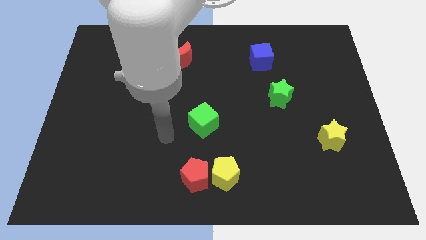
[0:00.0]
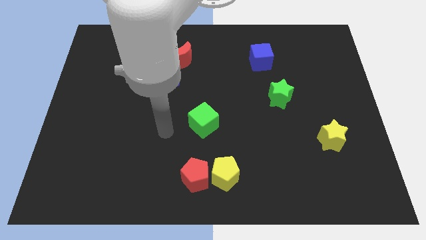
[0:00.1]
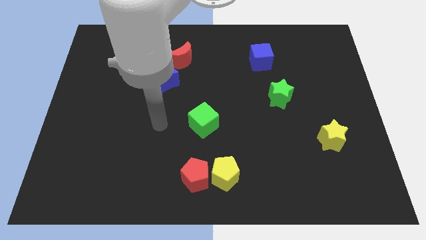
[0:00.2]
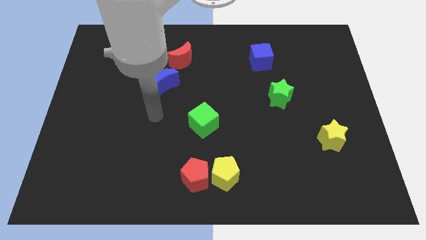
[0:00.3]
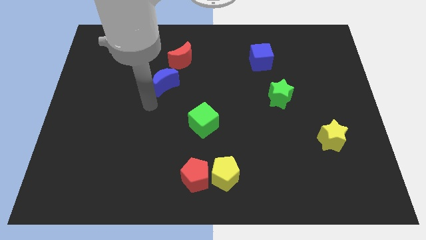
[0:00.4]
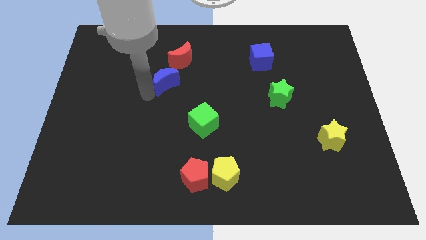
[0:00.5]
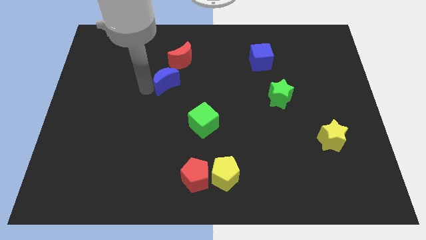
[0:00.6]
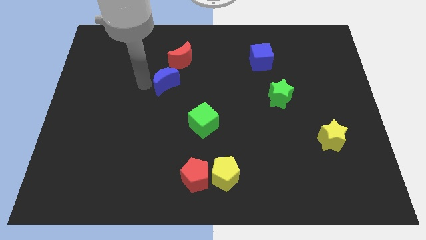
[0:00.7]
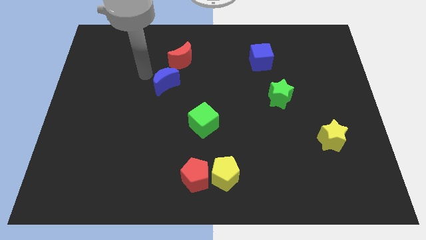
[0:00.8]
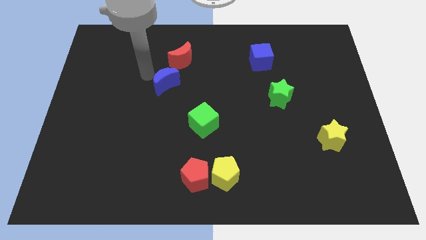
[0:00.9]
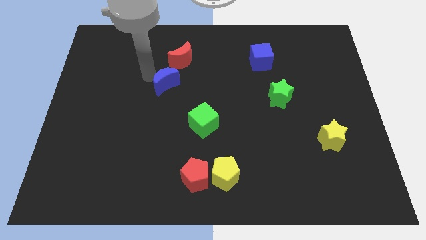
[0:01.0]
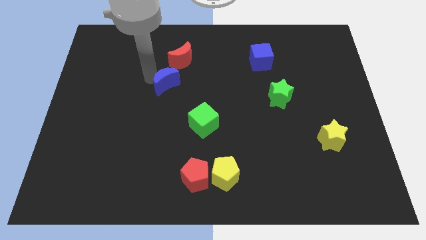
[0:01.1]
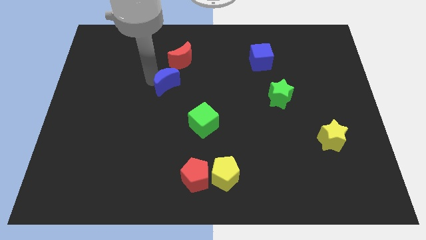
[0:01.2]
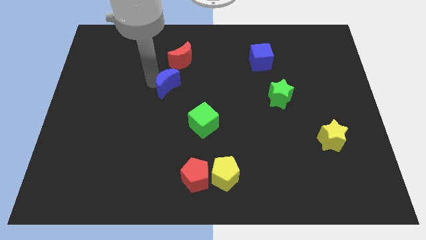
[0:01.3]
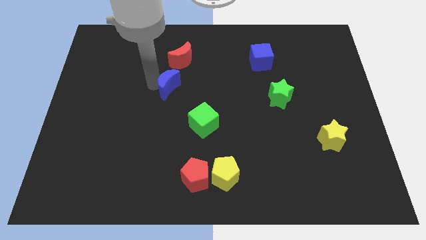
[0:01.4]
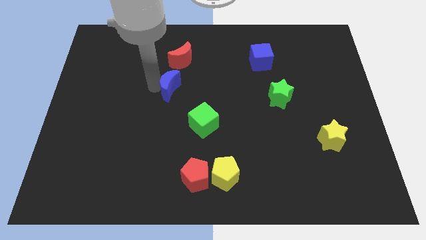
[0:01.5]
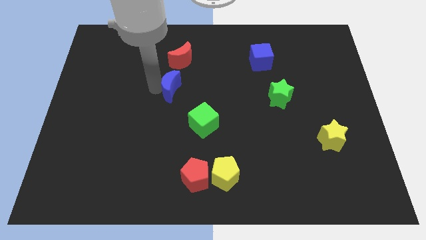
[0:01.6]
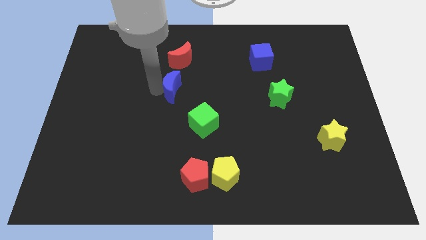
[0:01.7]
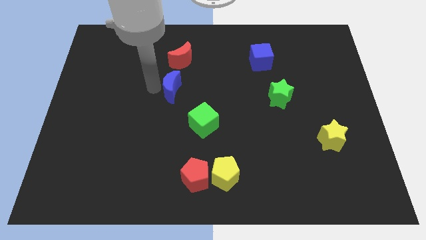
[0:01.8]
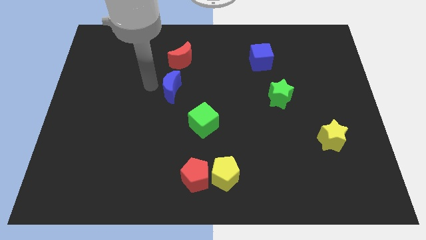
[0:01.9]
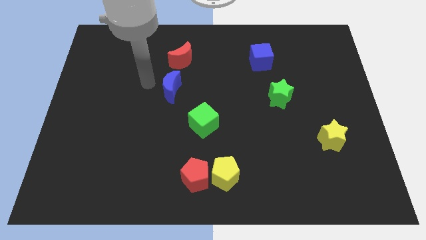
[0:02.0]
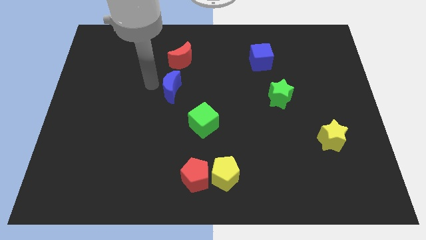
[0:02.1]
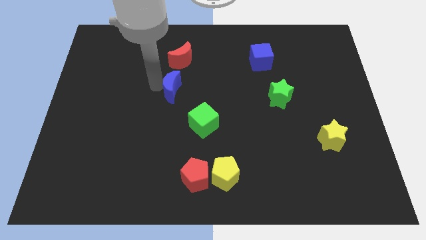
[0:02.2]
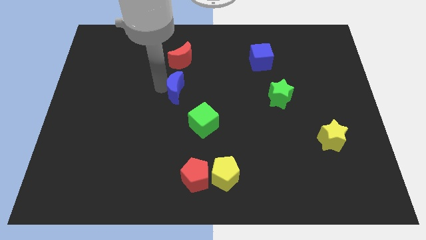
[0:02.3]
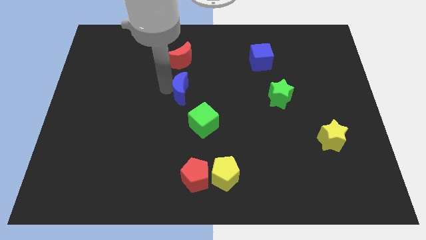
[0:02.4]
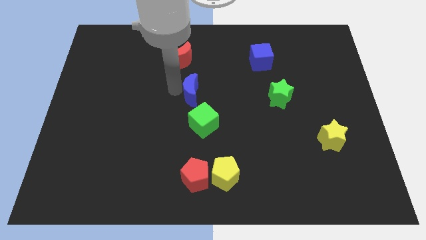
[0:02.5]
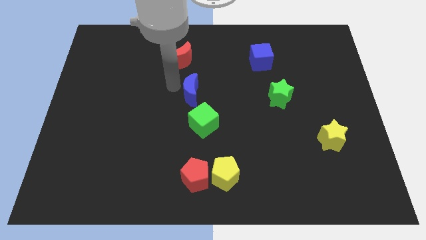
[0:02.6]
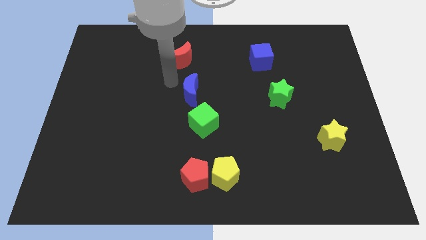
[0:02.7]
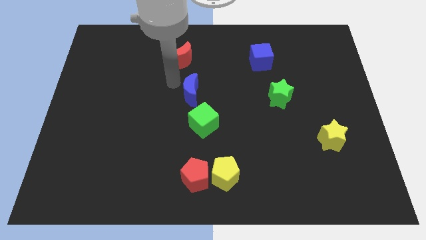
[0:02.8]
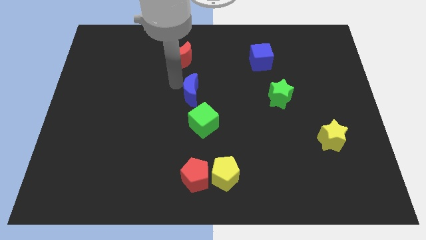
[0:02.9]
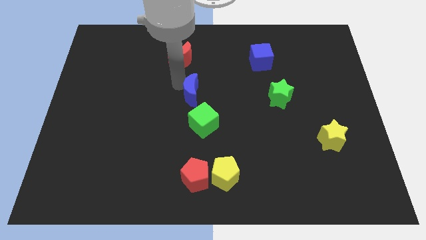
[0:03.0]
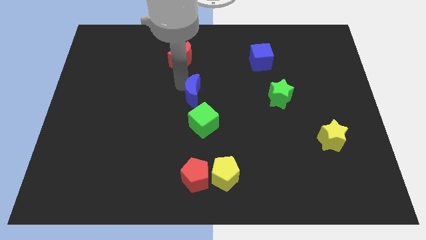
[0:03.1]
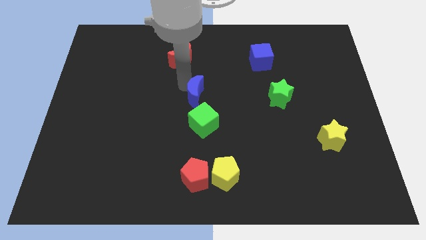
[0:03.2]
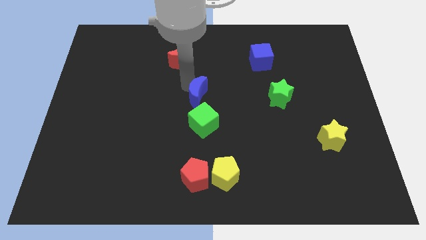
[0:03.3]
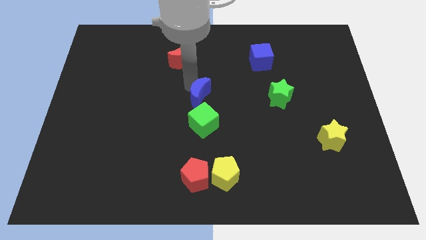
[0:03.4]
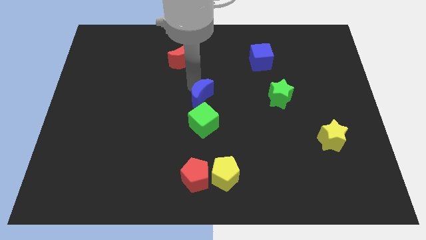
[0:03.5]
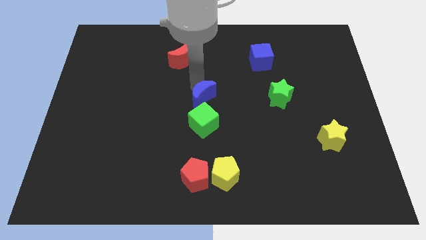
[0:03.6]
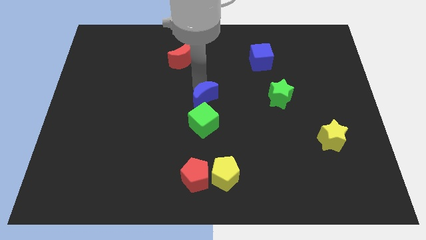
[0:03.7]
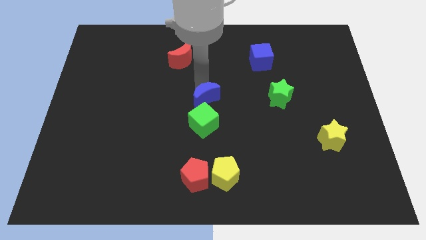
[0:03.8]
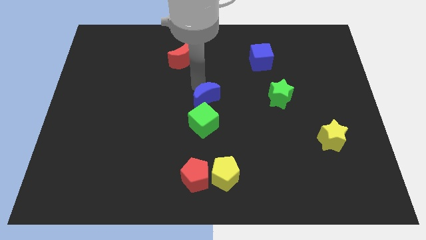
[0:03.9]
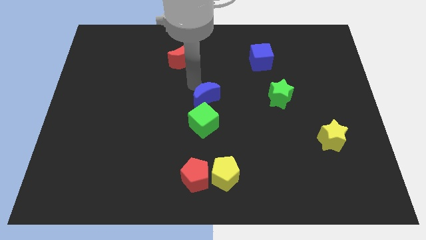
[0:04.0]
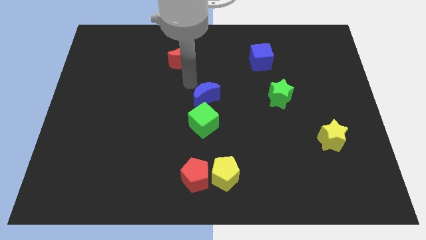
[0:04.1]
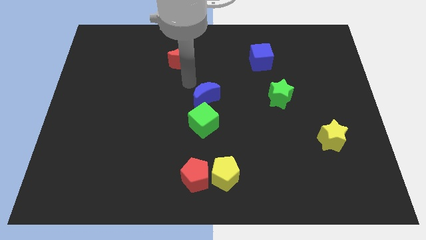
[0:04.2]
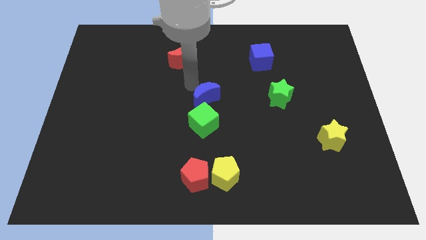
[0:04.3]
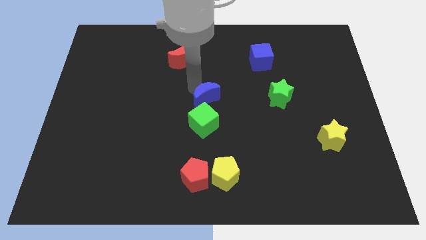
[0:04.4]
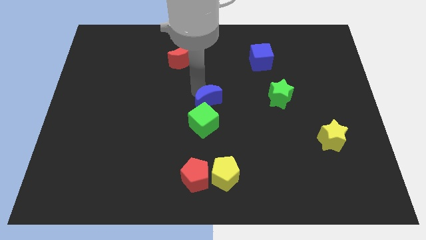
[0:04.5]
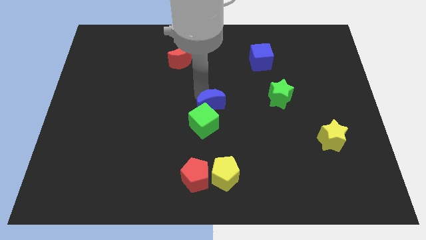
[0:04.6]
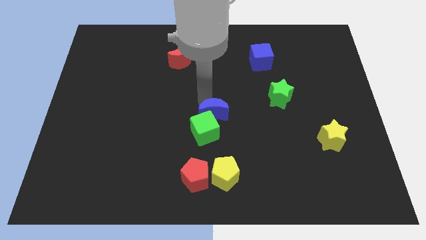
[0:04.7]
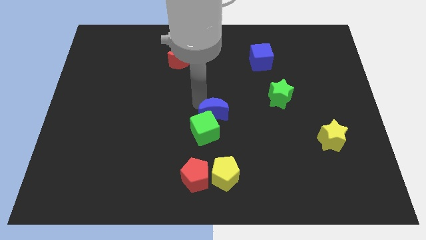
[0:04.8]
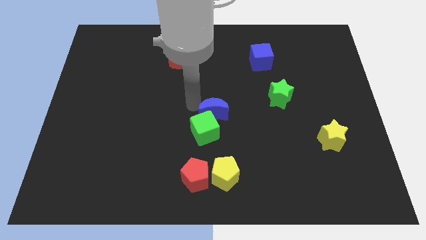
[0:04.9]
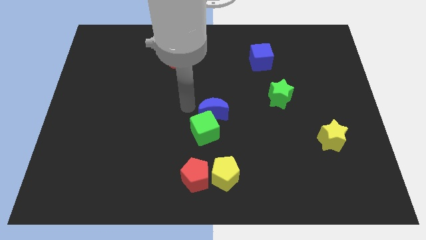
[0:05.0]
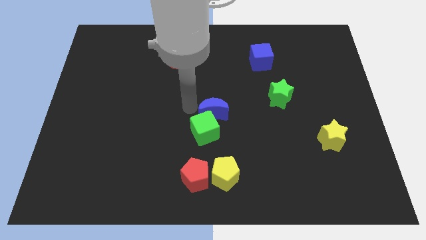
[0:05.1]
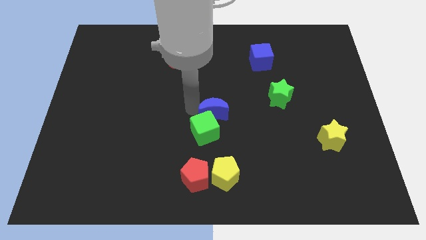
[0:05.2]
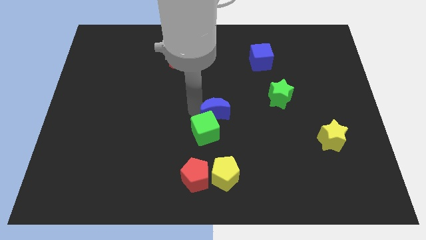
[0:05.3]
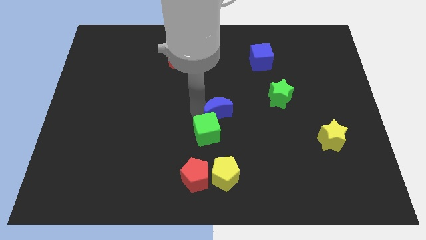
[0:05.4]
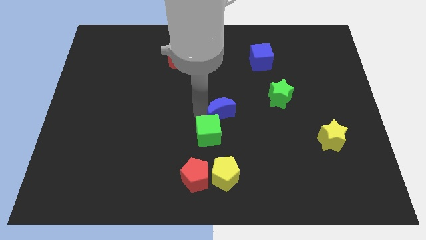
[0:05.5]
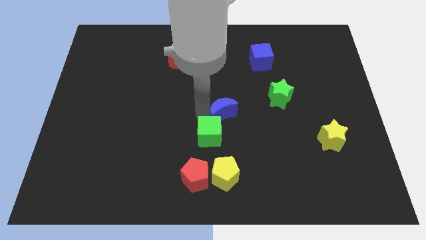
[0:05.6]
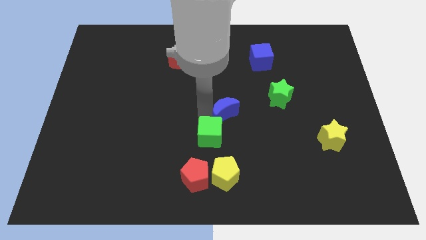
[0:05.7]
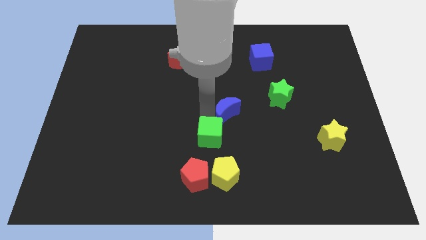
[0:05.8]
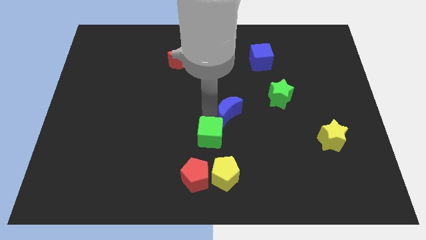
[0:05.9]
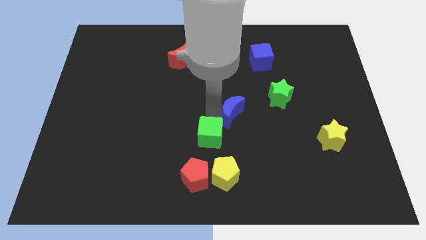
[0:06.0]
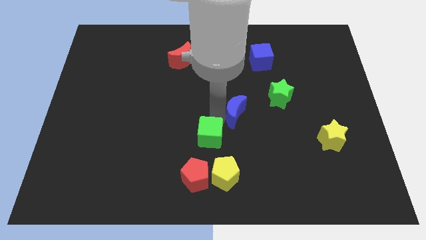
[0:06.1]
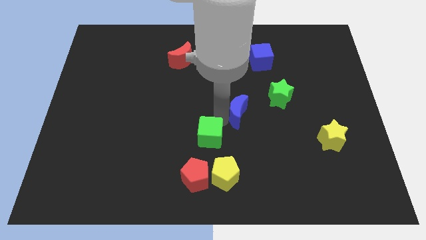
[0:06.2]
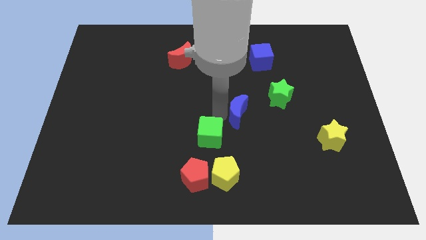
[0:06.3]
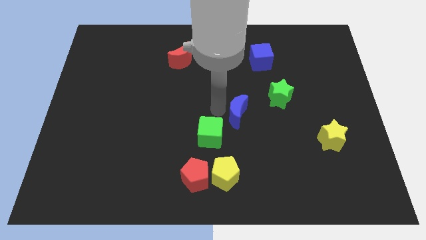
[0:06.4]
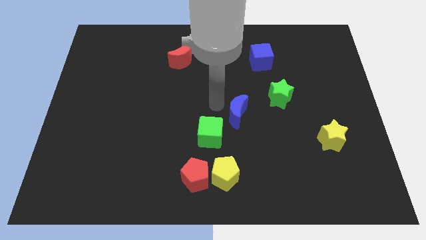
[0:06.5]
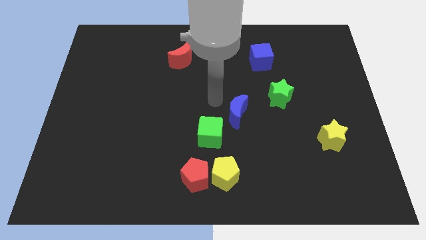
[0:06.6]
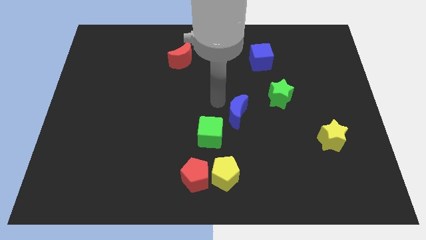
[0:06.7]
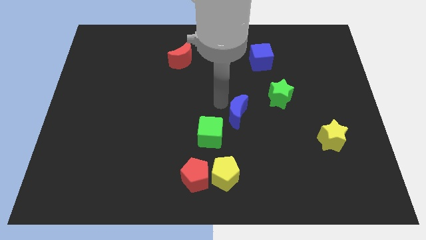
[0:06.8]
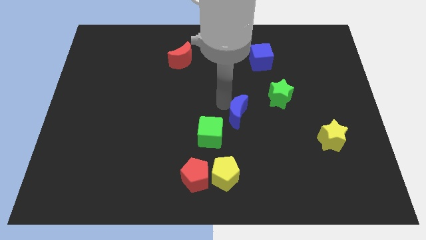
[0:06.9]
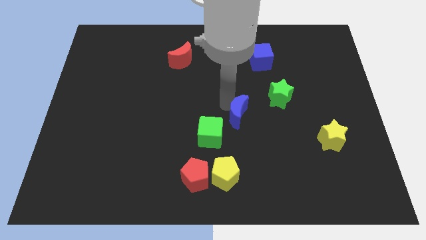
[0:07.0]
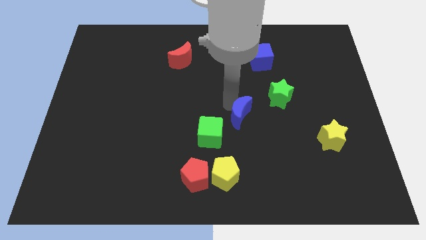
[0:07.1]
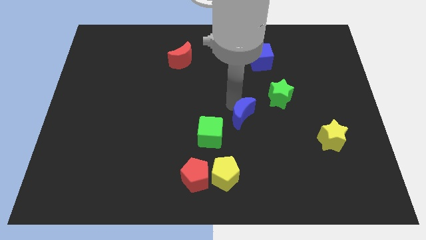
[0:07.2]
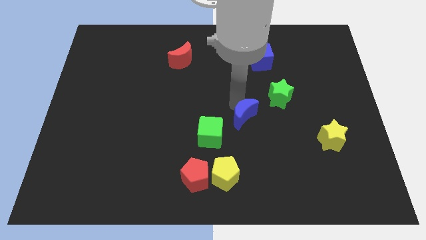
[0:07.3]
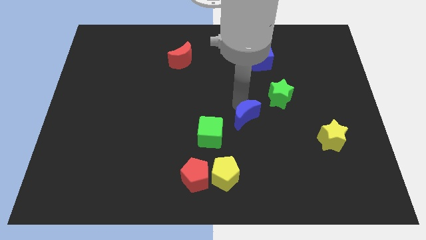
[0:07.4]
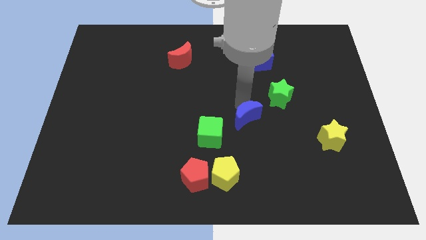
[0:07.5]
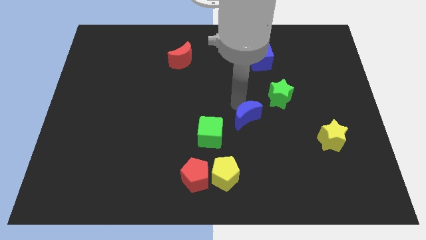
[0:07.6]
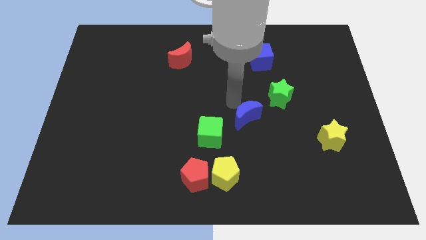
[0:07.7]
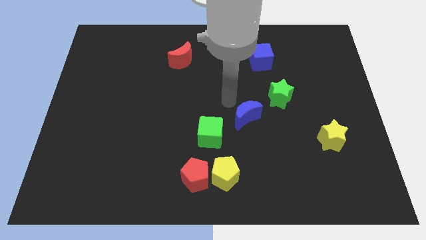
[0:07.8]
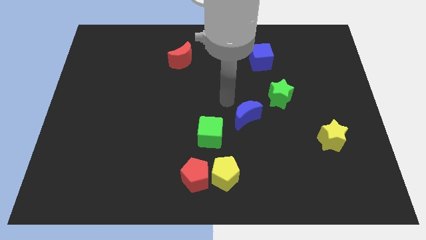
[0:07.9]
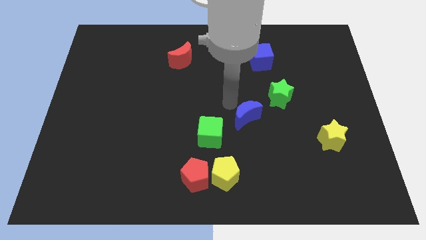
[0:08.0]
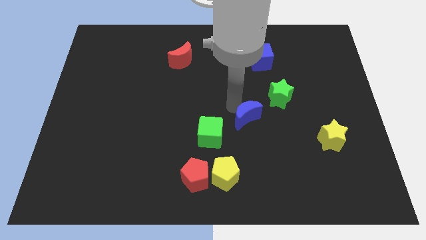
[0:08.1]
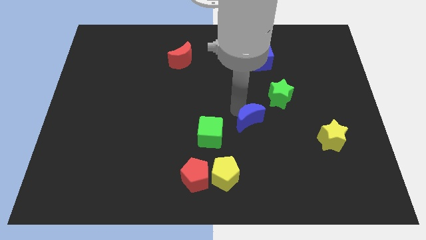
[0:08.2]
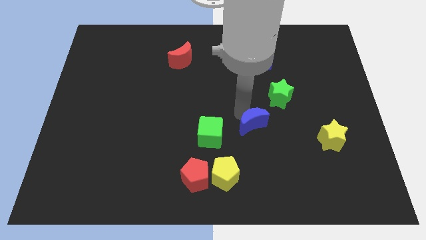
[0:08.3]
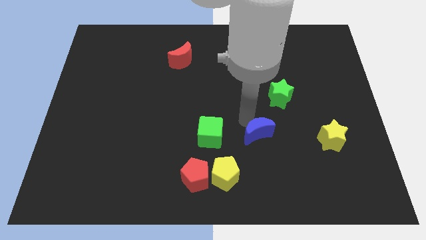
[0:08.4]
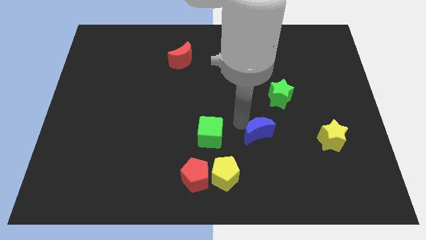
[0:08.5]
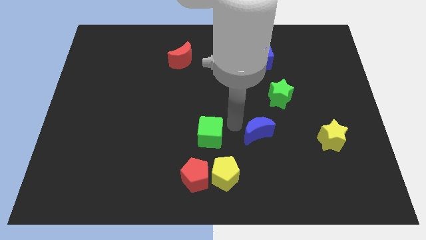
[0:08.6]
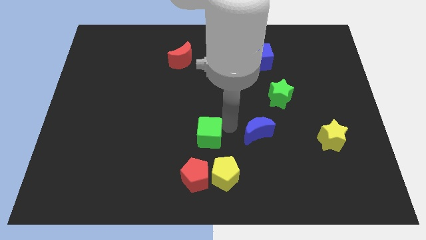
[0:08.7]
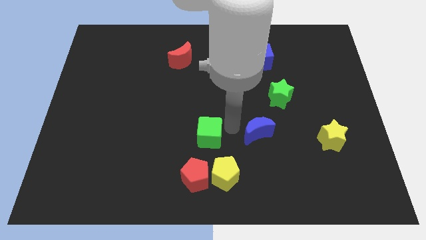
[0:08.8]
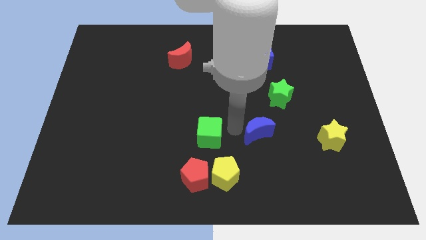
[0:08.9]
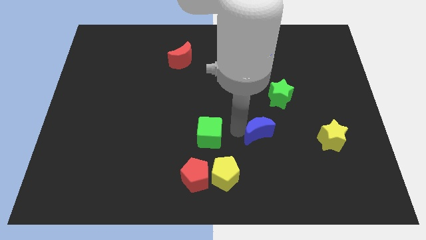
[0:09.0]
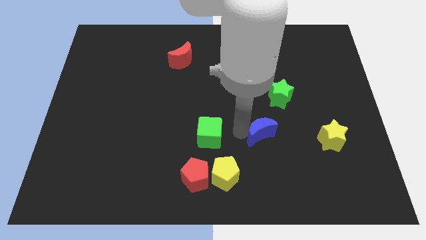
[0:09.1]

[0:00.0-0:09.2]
move the blue moon to the left side of the yellow star
